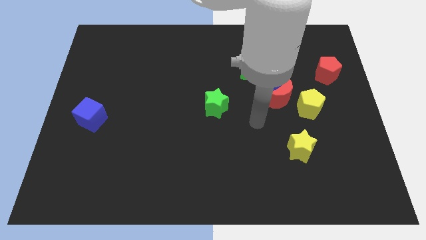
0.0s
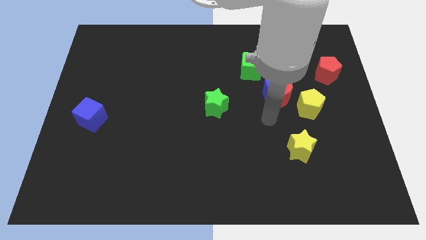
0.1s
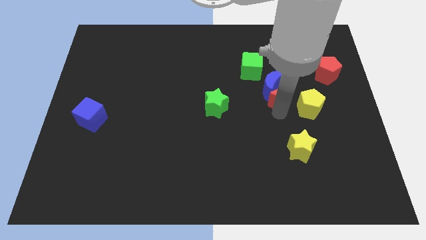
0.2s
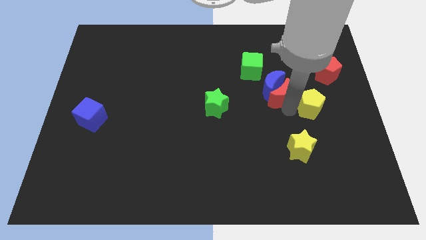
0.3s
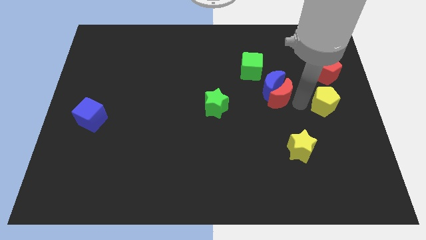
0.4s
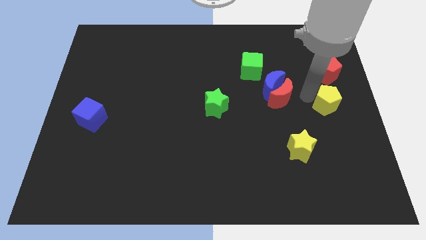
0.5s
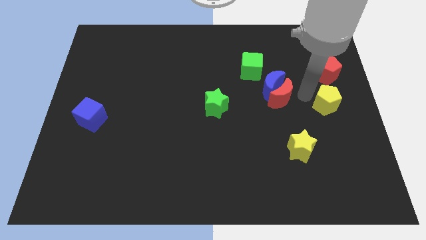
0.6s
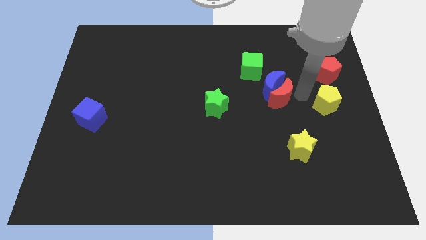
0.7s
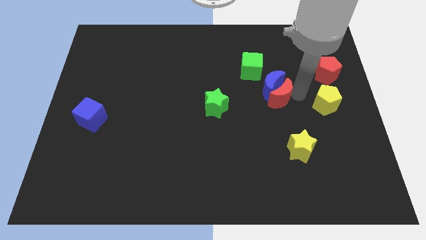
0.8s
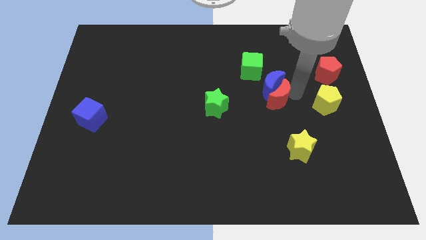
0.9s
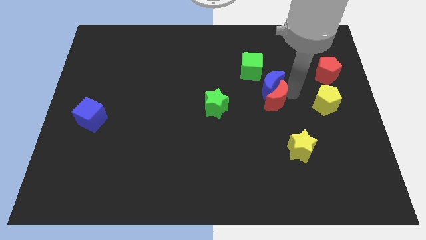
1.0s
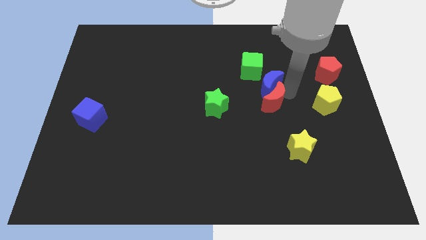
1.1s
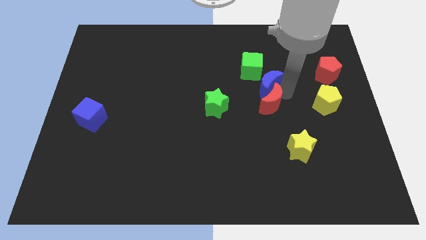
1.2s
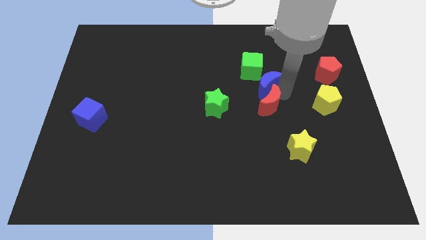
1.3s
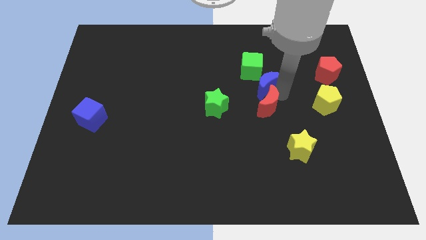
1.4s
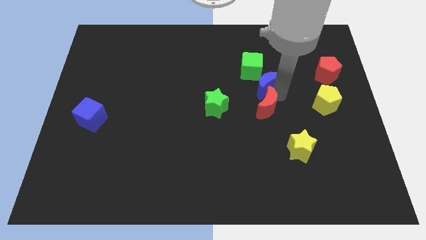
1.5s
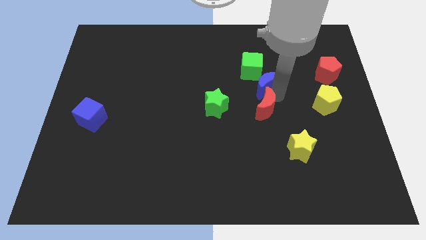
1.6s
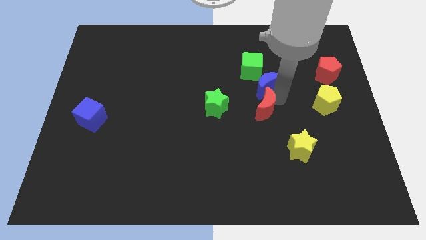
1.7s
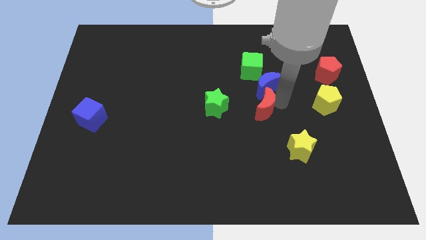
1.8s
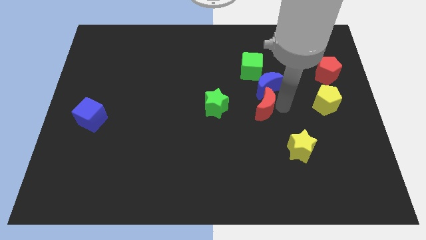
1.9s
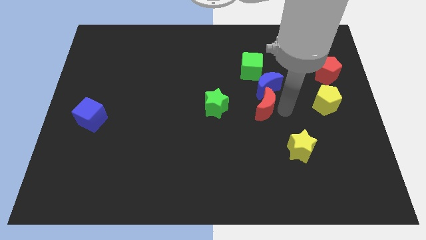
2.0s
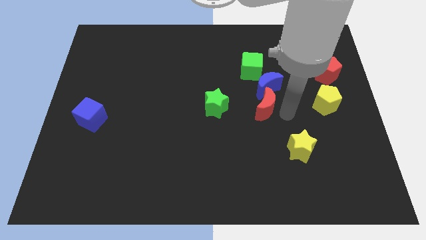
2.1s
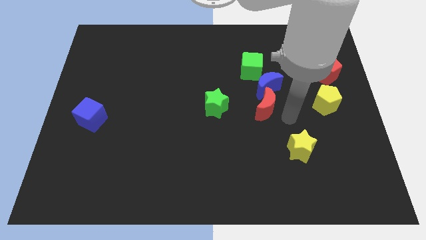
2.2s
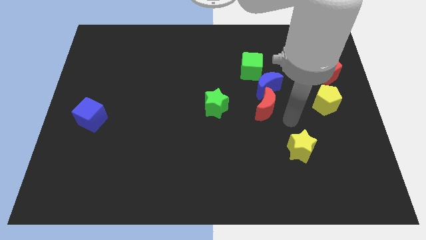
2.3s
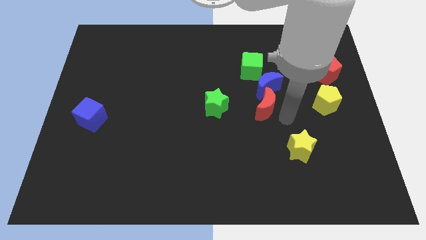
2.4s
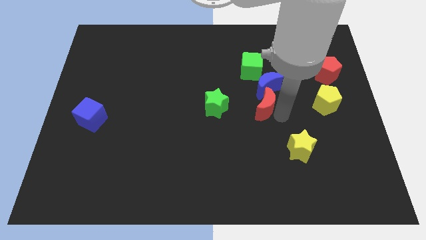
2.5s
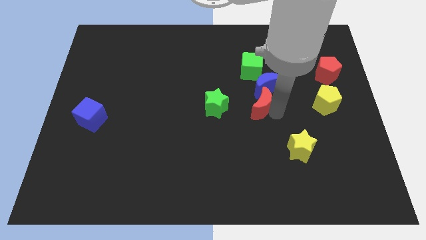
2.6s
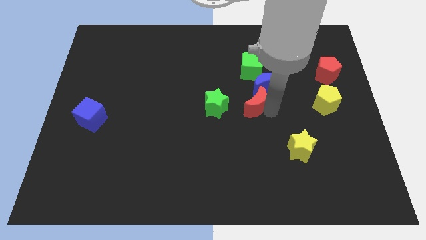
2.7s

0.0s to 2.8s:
separate the red moon from the blue moon and yellow pentagon

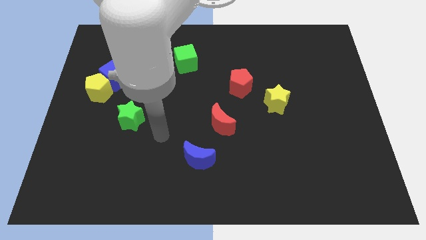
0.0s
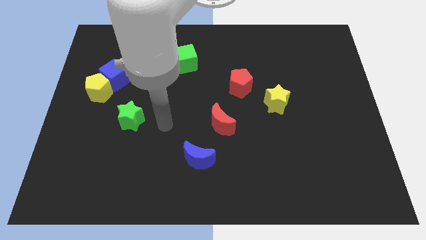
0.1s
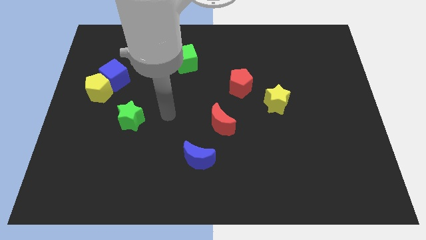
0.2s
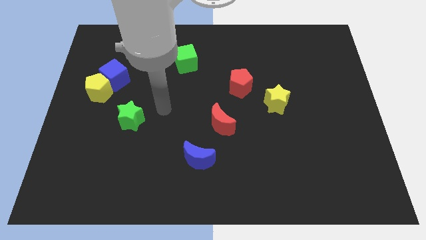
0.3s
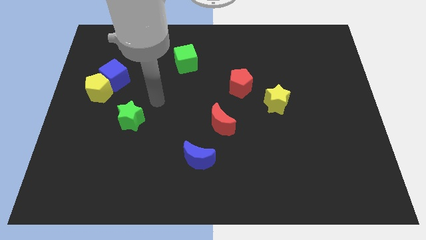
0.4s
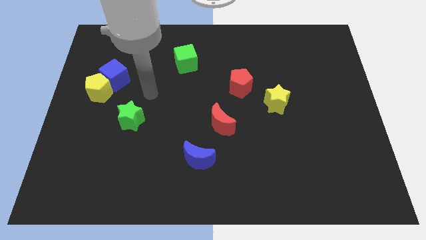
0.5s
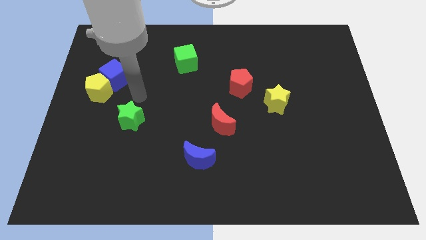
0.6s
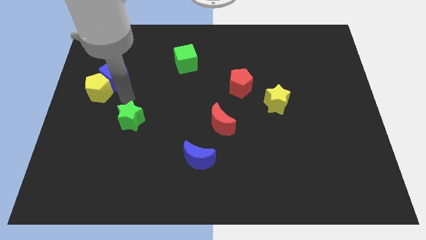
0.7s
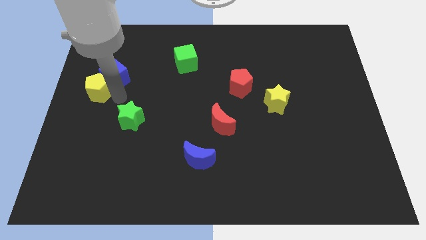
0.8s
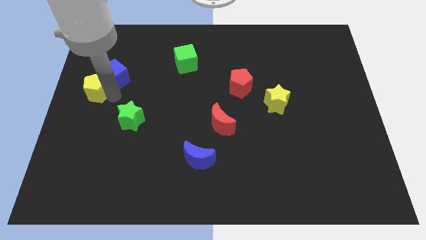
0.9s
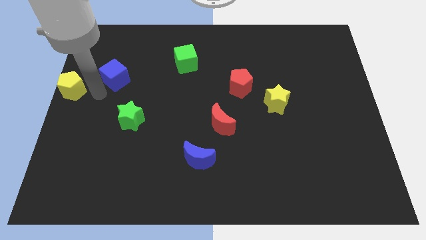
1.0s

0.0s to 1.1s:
pull the blue cube apart from the yellow pentagon

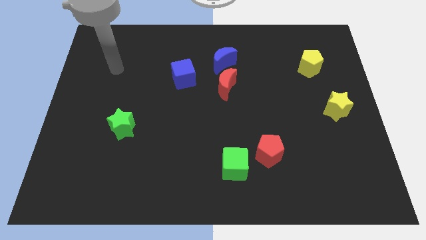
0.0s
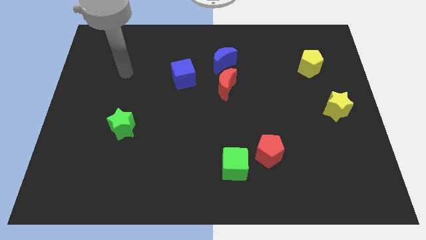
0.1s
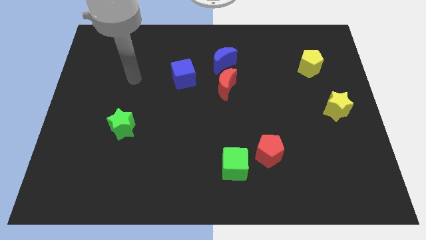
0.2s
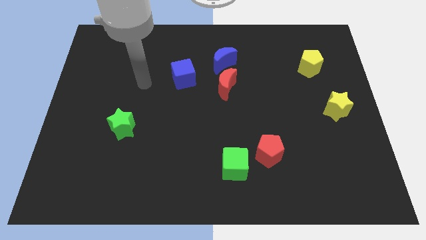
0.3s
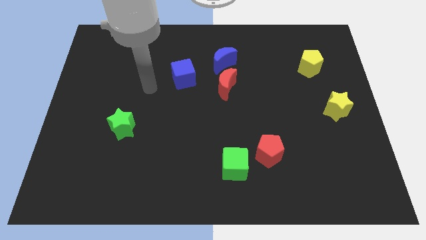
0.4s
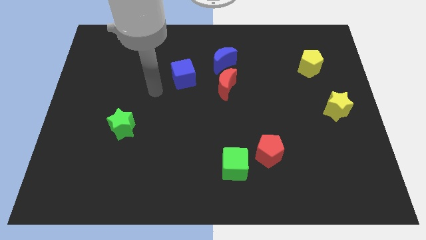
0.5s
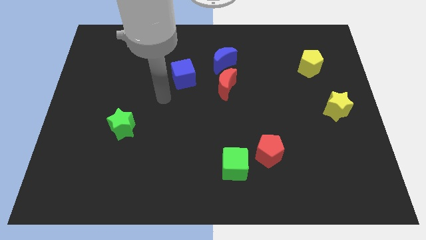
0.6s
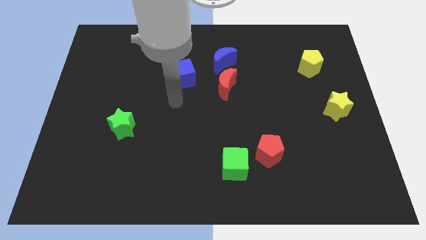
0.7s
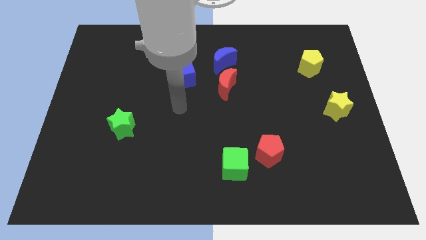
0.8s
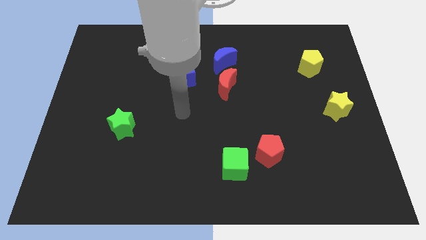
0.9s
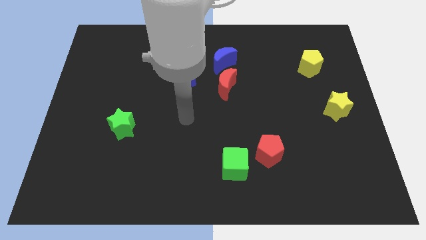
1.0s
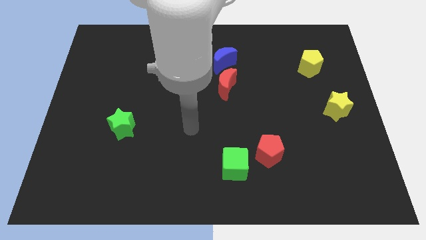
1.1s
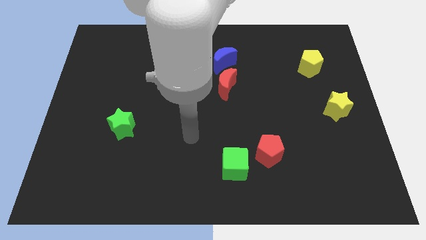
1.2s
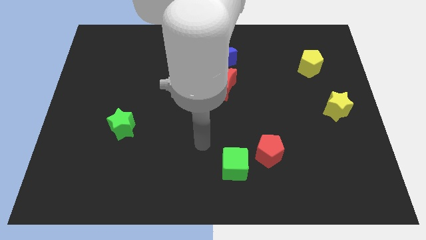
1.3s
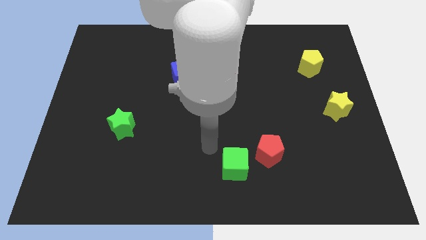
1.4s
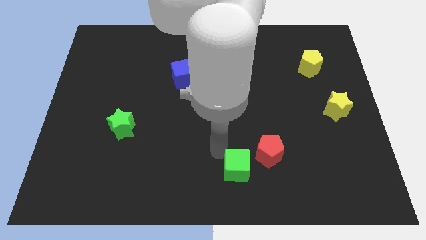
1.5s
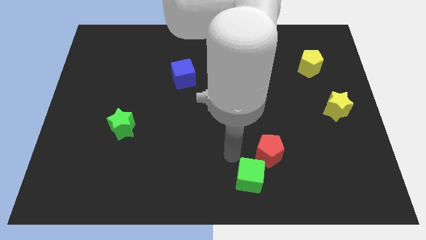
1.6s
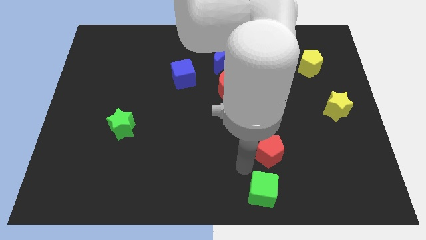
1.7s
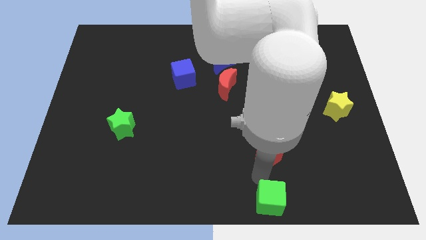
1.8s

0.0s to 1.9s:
move the red pentagon away from the green cube

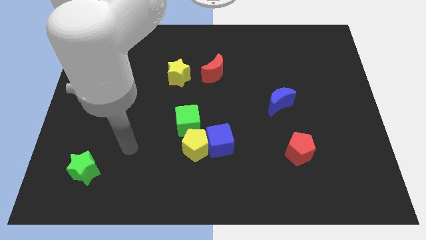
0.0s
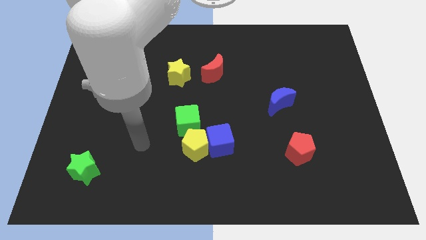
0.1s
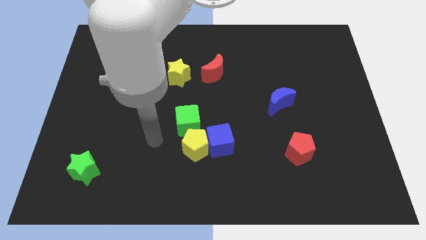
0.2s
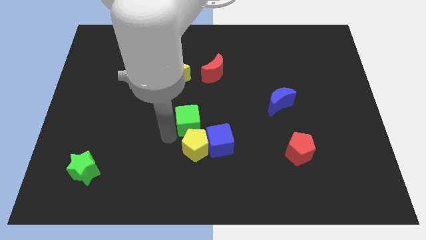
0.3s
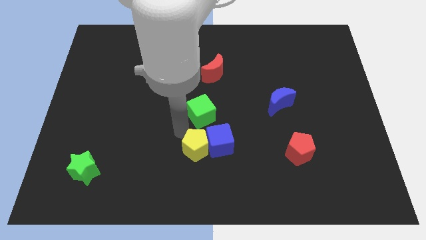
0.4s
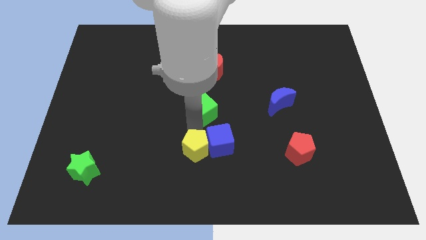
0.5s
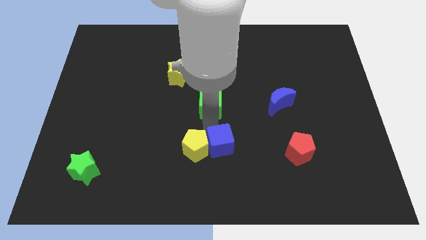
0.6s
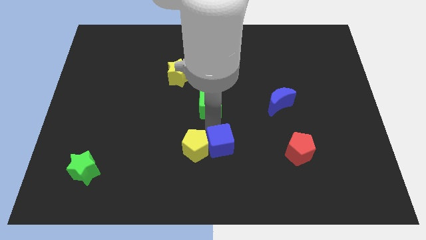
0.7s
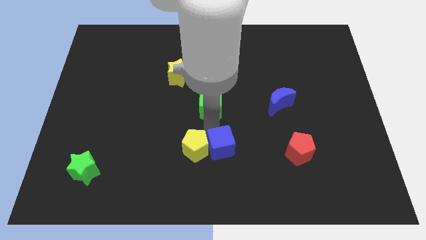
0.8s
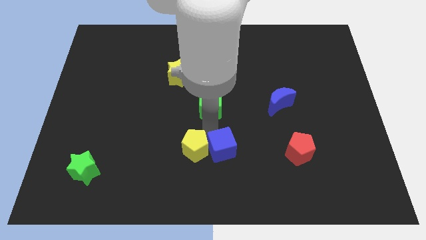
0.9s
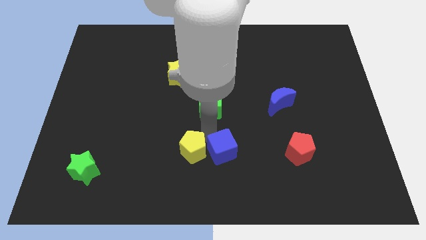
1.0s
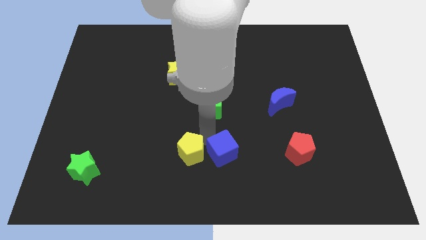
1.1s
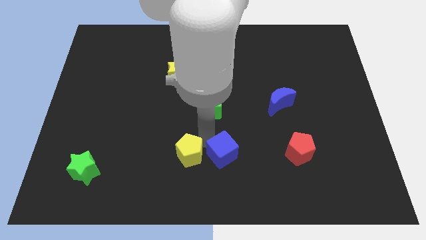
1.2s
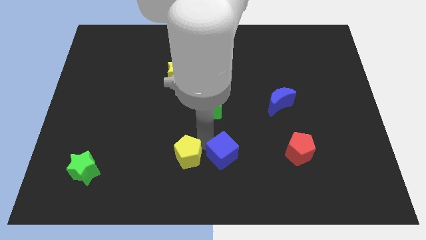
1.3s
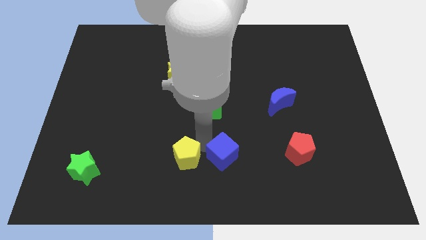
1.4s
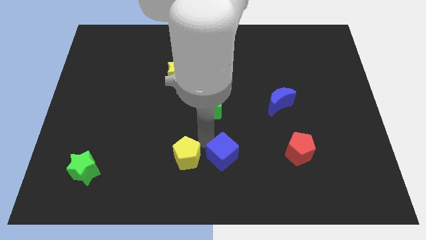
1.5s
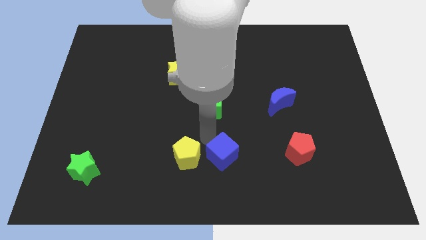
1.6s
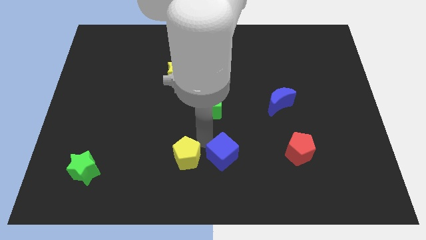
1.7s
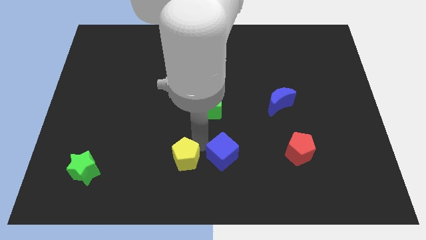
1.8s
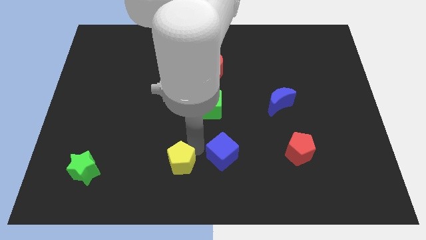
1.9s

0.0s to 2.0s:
pull the yellow pentagon apart from the blue cube and green cube

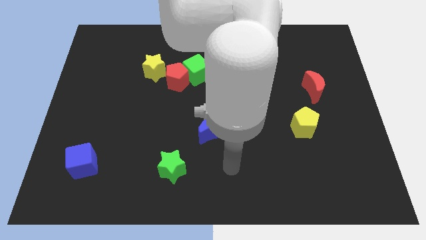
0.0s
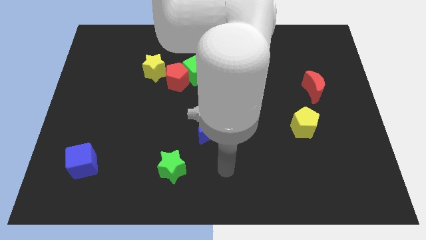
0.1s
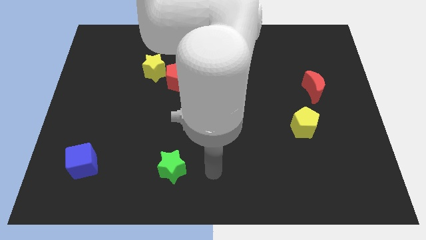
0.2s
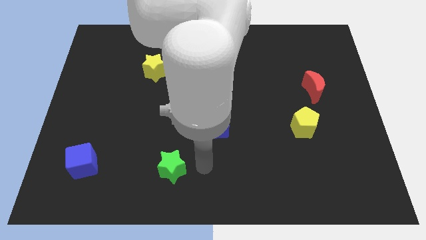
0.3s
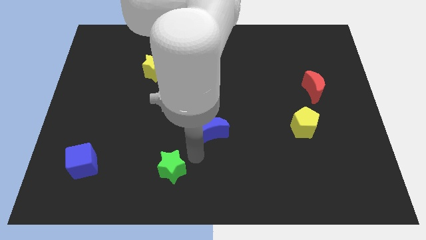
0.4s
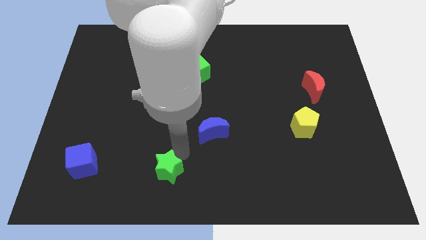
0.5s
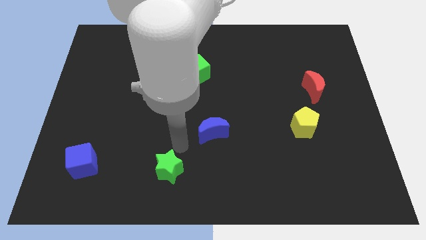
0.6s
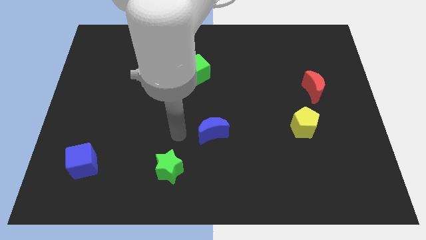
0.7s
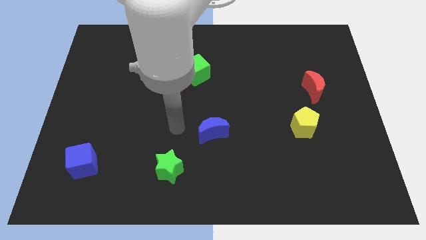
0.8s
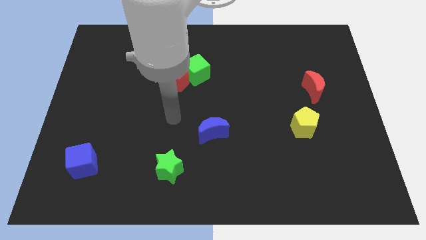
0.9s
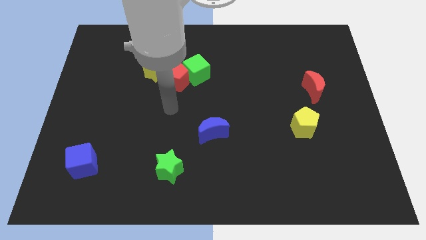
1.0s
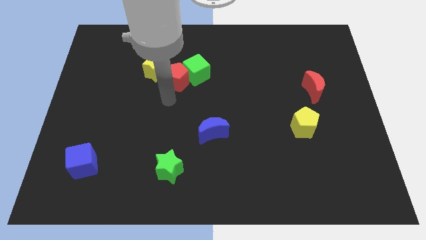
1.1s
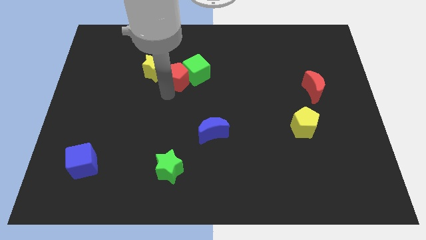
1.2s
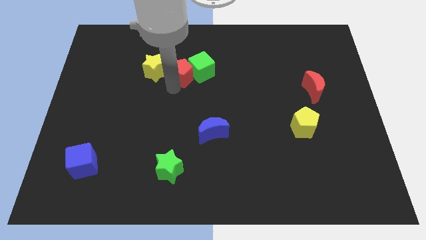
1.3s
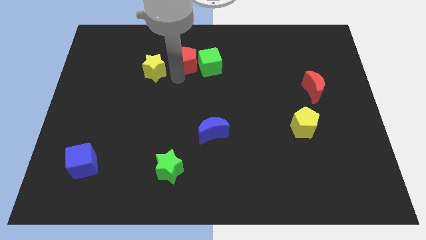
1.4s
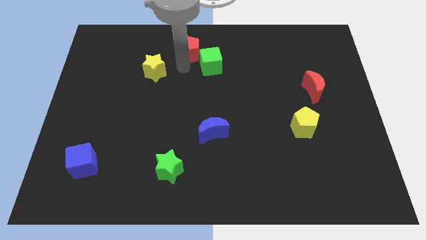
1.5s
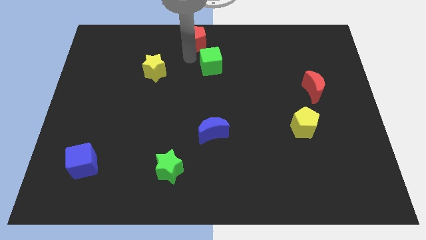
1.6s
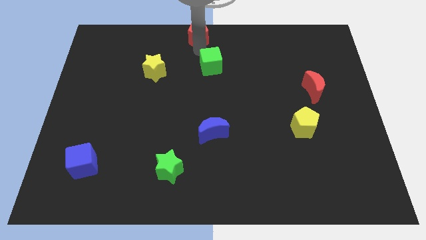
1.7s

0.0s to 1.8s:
pull the green cube apart from the red pentagon
